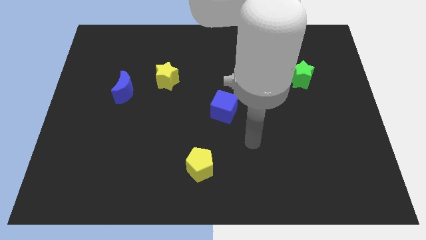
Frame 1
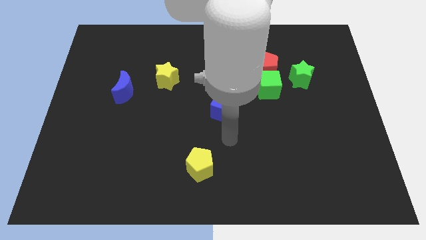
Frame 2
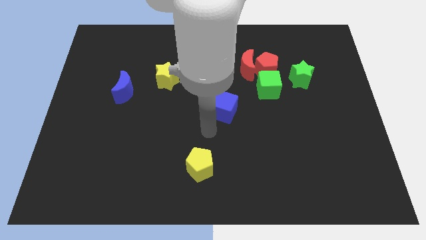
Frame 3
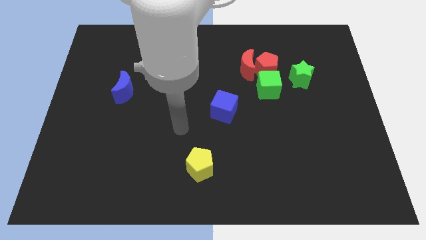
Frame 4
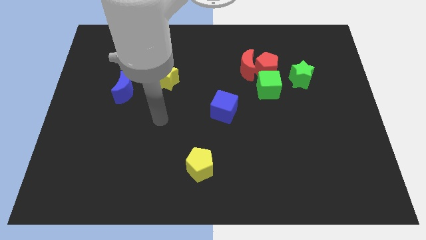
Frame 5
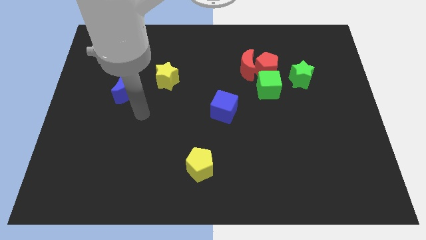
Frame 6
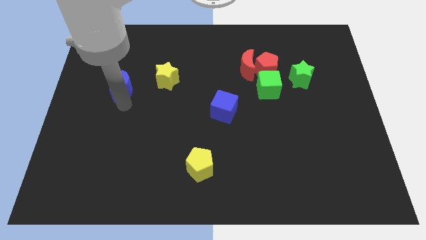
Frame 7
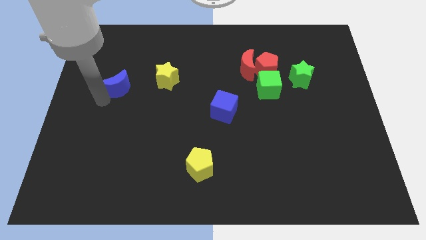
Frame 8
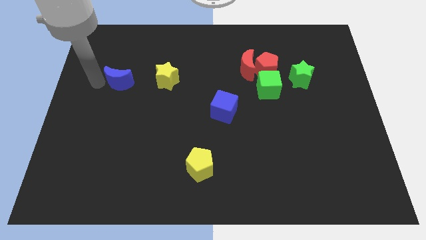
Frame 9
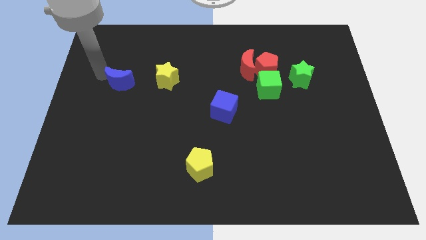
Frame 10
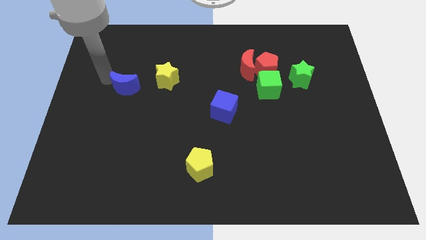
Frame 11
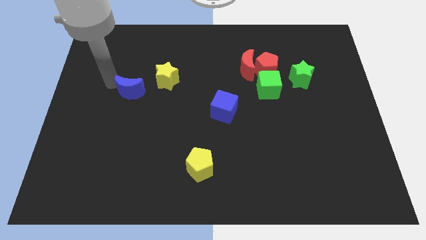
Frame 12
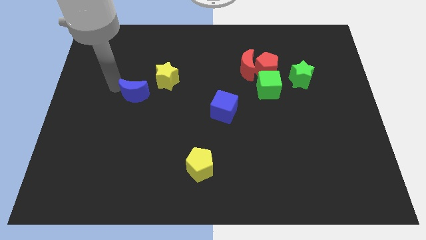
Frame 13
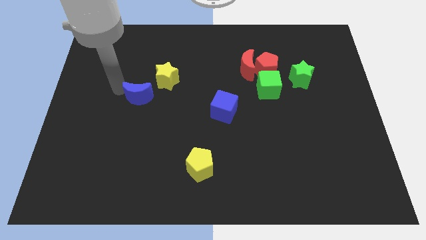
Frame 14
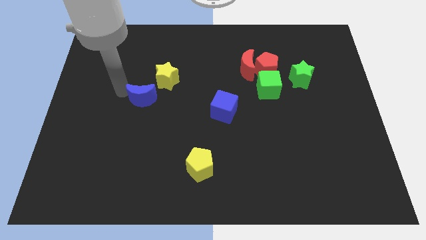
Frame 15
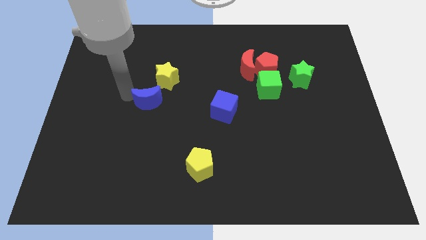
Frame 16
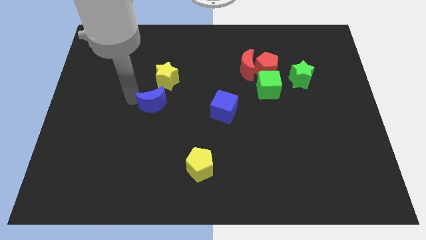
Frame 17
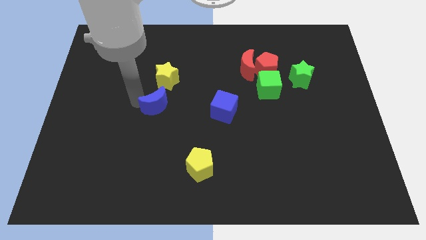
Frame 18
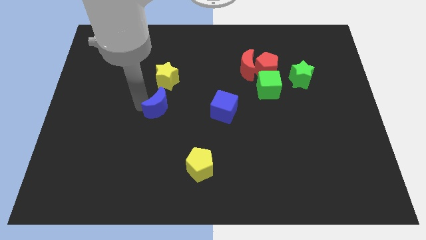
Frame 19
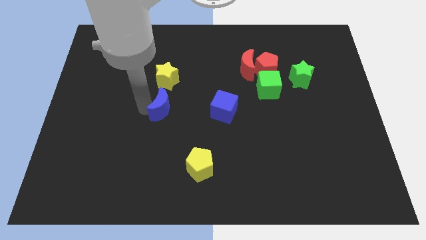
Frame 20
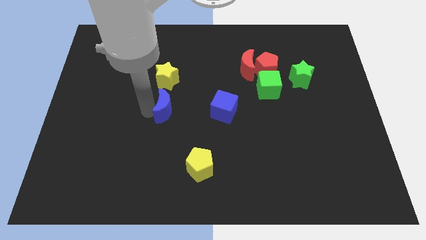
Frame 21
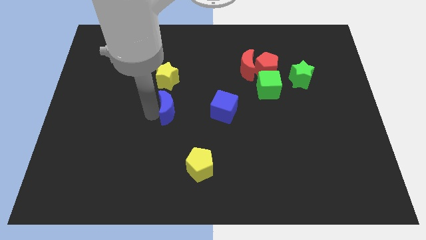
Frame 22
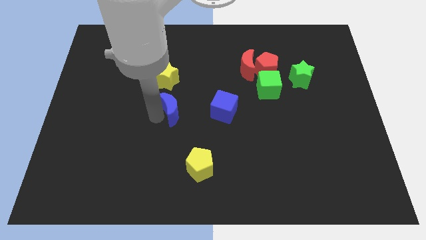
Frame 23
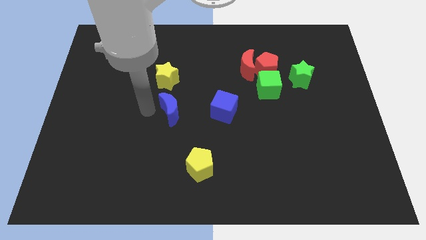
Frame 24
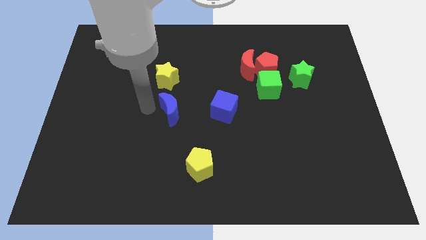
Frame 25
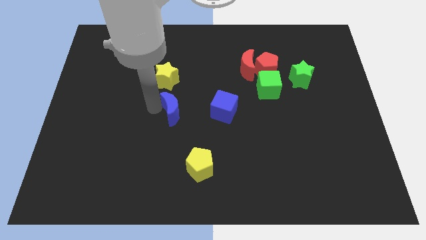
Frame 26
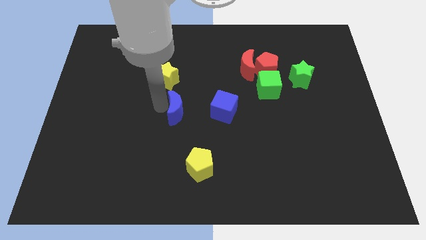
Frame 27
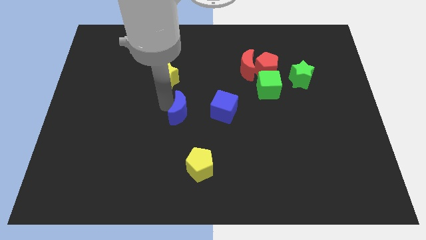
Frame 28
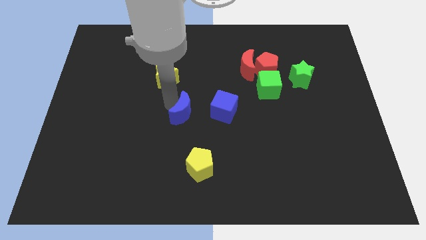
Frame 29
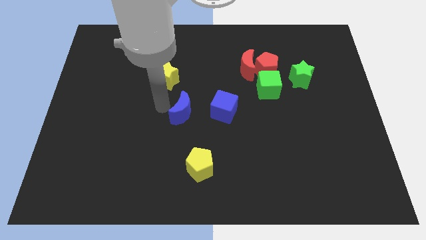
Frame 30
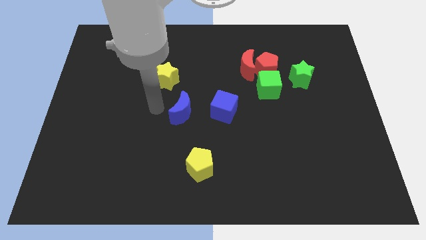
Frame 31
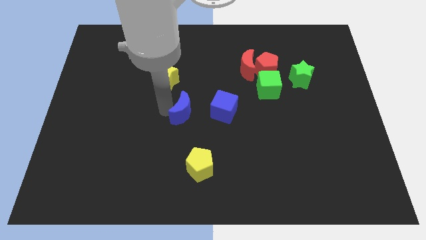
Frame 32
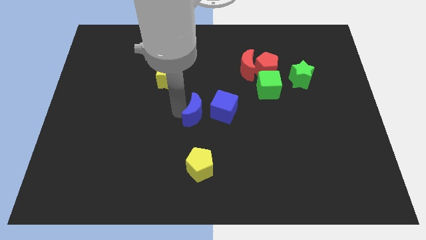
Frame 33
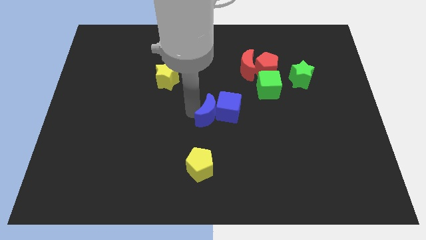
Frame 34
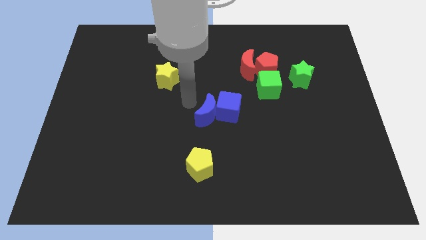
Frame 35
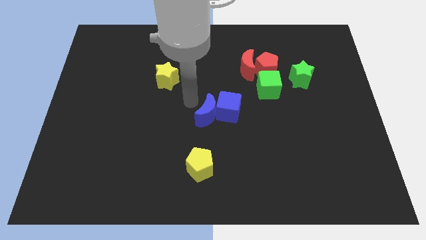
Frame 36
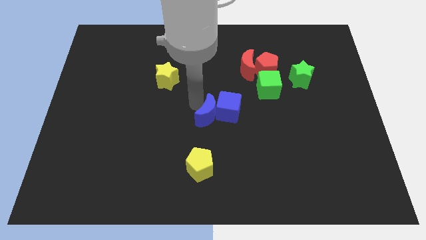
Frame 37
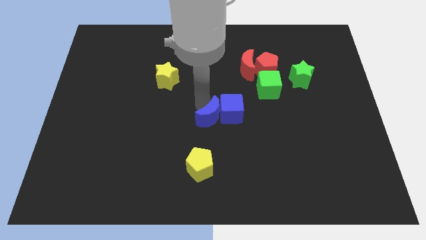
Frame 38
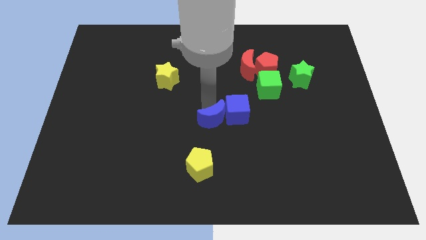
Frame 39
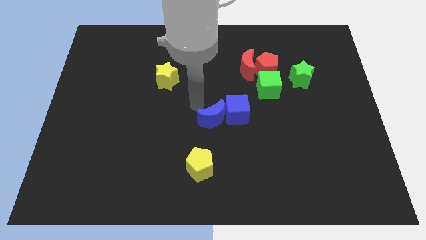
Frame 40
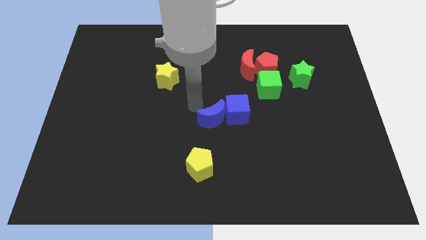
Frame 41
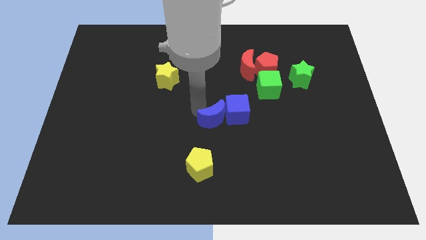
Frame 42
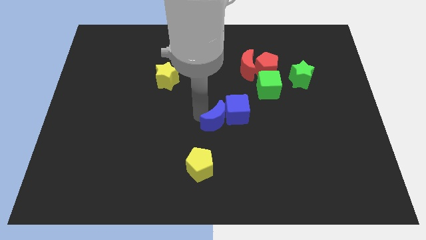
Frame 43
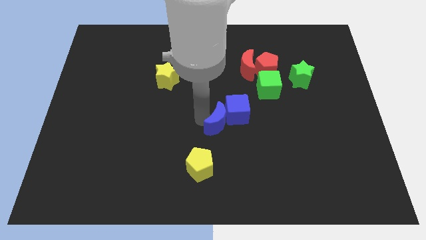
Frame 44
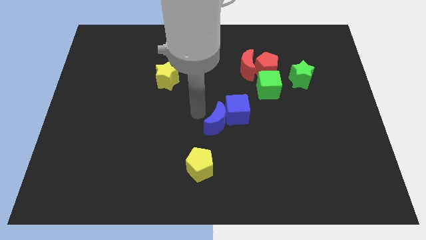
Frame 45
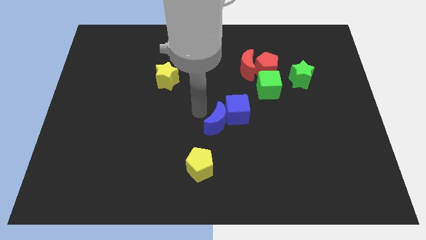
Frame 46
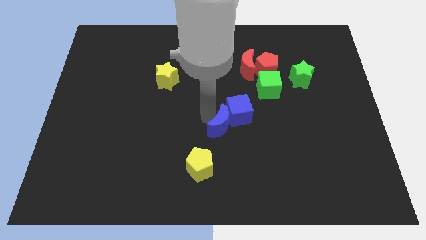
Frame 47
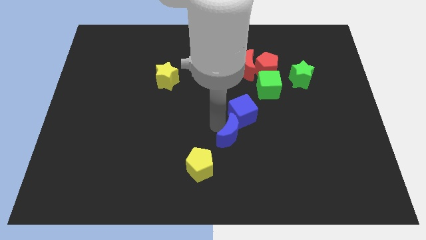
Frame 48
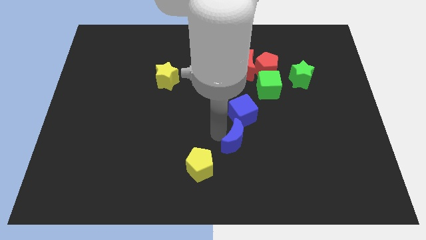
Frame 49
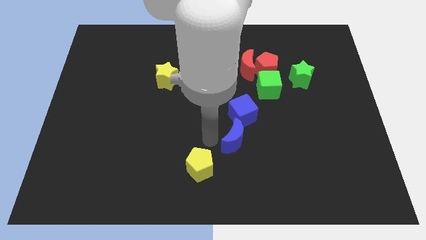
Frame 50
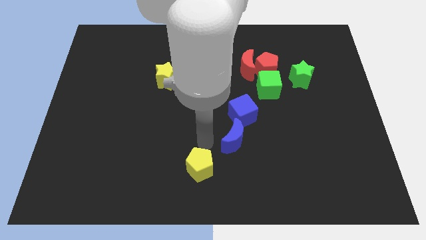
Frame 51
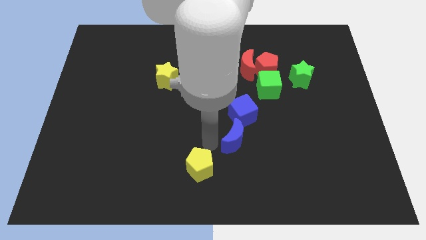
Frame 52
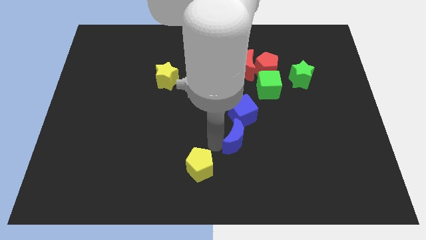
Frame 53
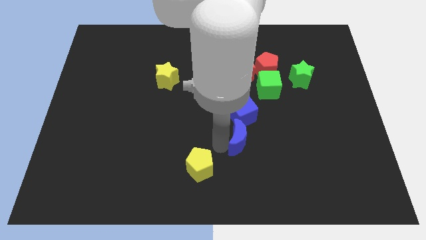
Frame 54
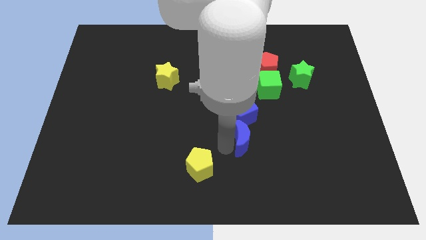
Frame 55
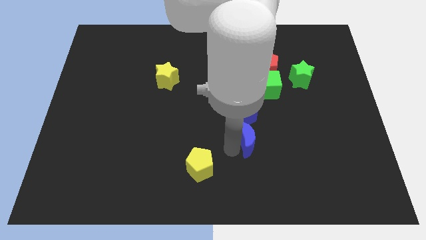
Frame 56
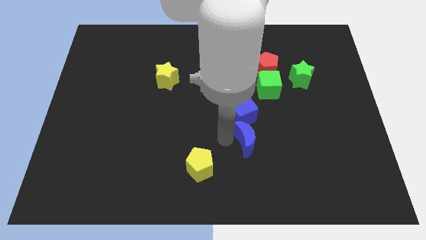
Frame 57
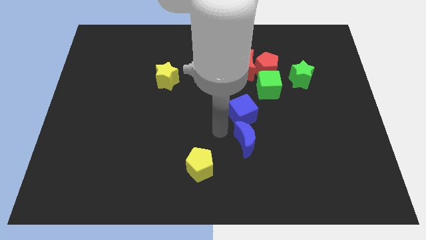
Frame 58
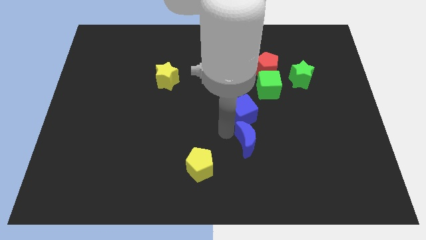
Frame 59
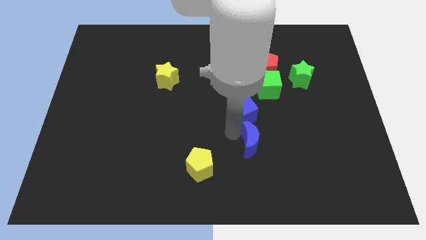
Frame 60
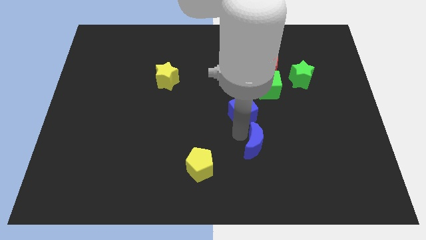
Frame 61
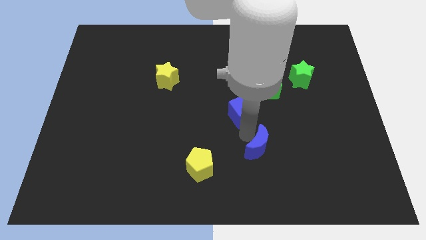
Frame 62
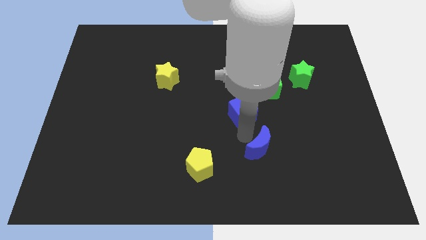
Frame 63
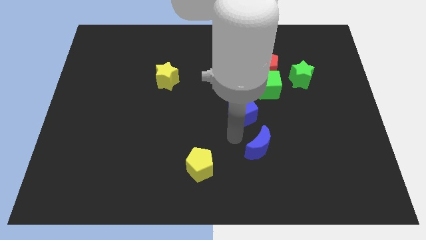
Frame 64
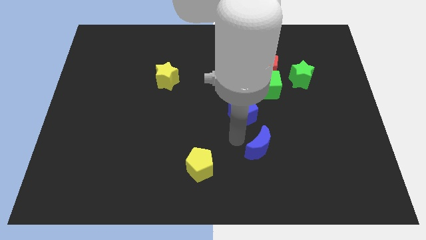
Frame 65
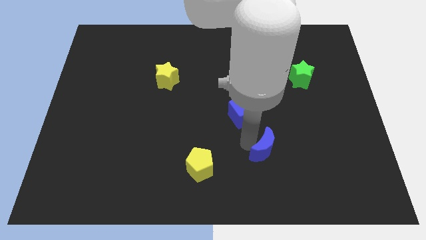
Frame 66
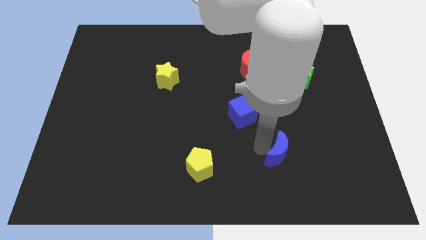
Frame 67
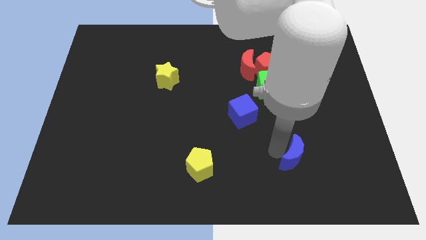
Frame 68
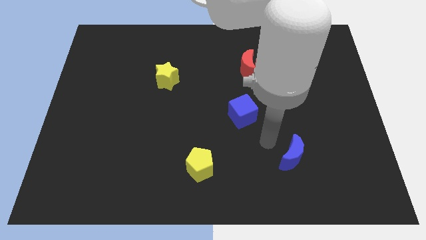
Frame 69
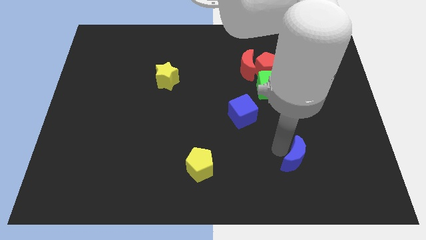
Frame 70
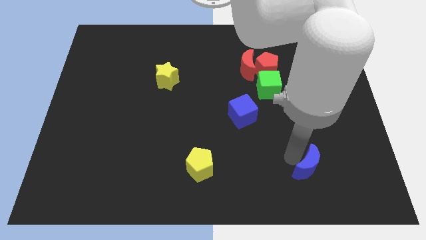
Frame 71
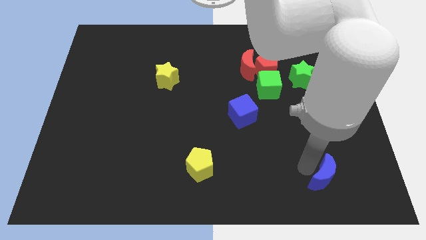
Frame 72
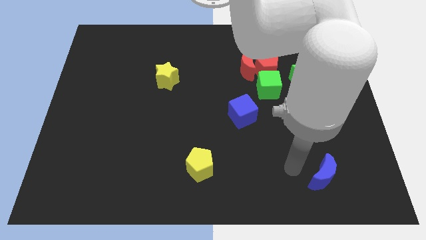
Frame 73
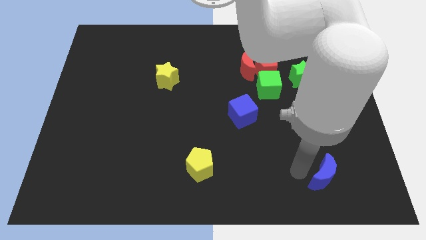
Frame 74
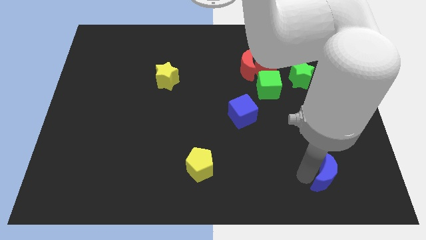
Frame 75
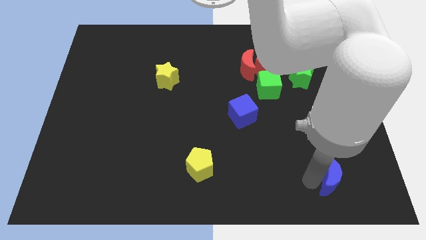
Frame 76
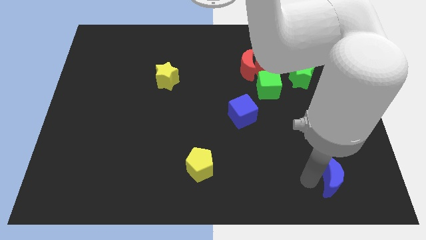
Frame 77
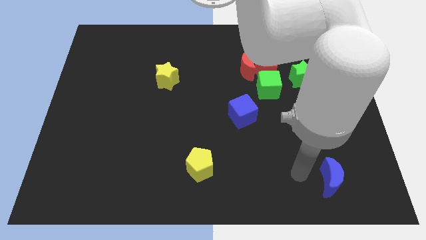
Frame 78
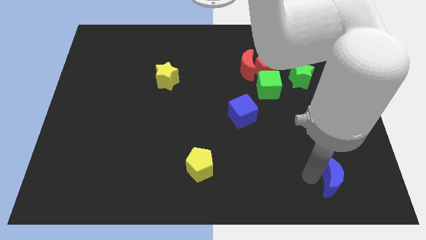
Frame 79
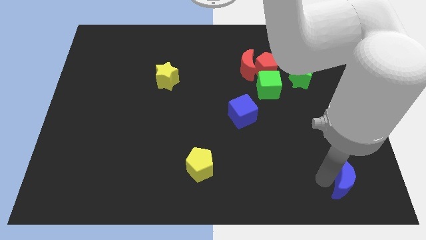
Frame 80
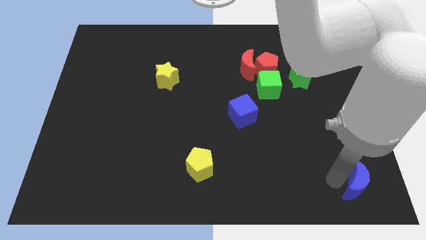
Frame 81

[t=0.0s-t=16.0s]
put the blue moon to the bottom right corner
